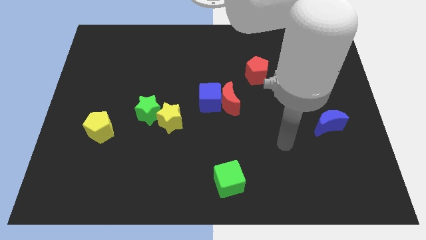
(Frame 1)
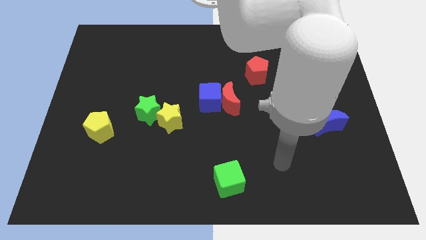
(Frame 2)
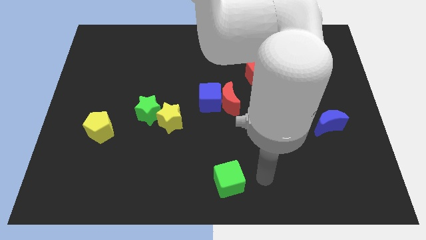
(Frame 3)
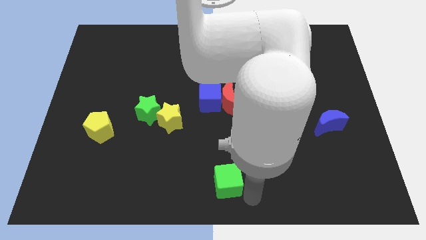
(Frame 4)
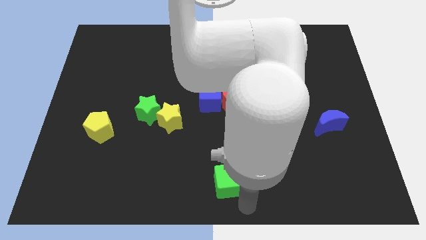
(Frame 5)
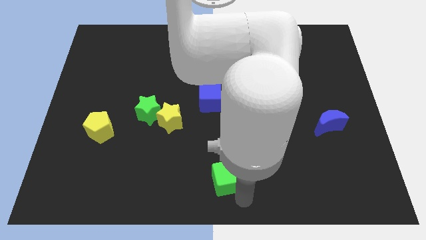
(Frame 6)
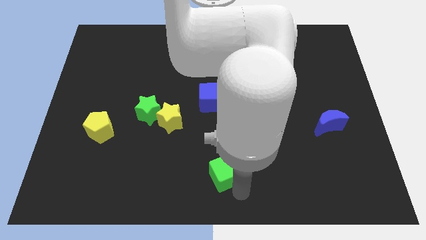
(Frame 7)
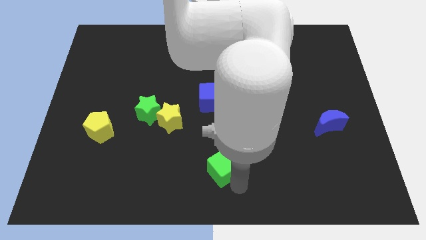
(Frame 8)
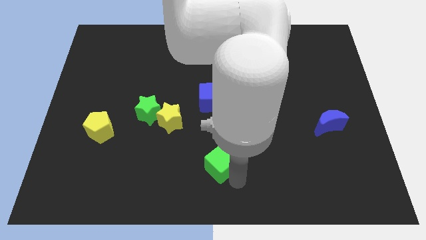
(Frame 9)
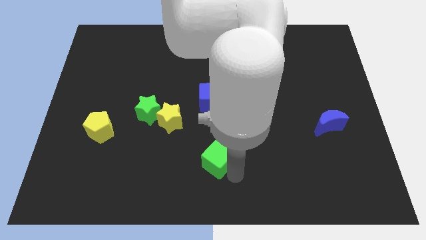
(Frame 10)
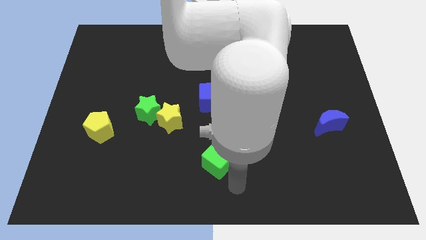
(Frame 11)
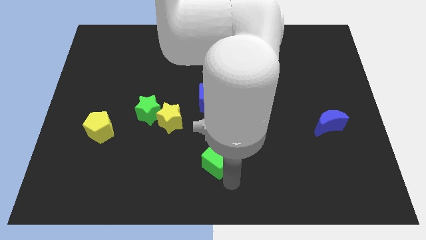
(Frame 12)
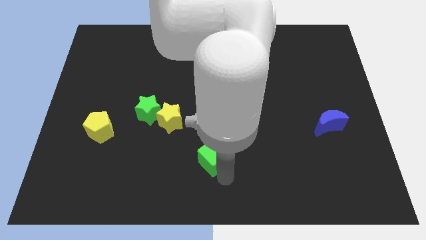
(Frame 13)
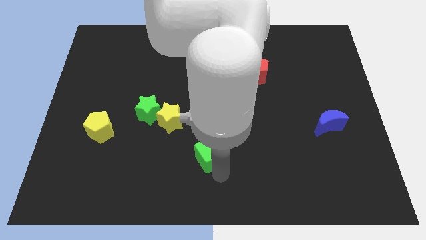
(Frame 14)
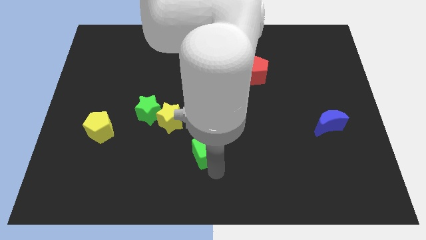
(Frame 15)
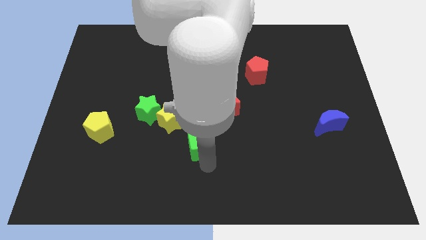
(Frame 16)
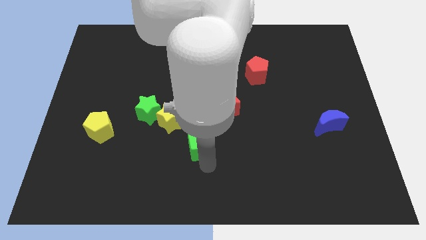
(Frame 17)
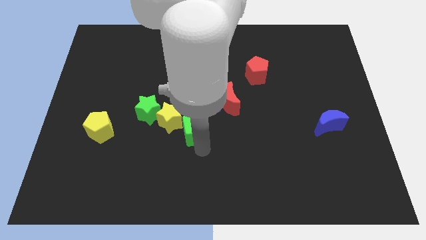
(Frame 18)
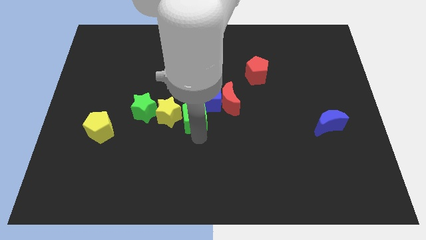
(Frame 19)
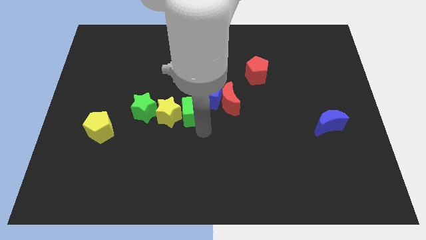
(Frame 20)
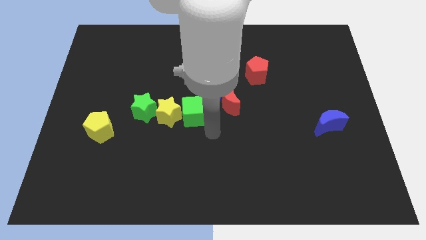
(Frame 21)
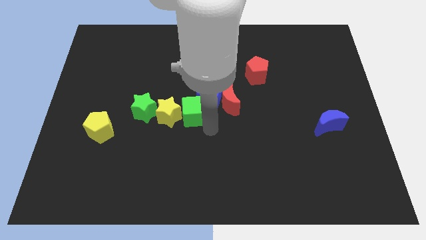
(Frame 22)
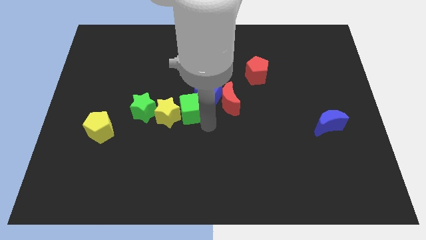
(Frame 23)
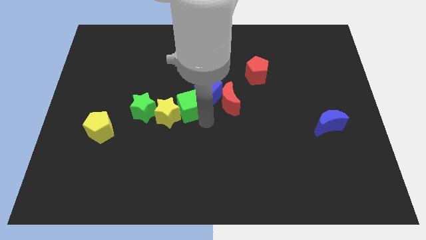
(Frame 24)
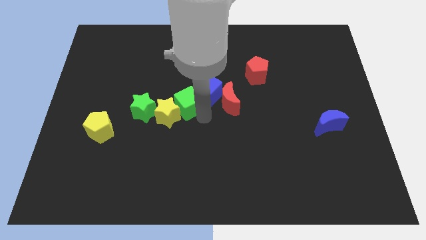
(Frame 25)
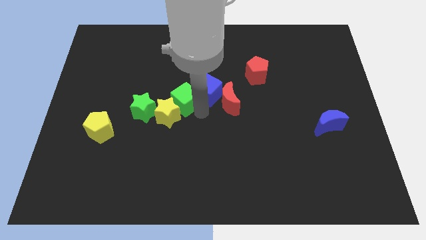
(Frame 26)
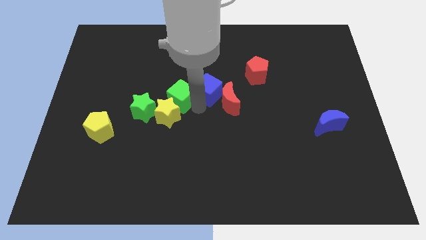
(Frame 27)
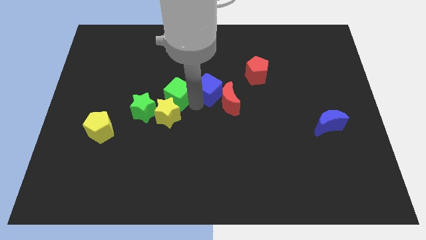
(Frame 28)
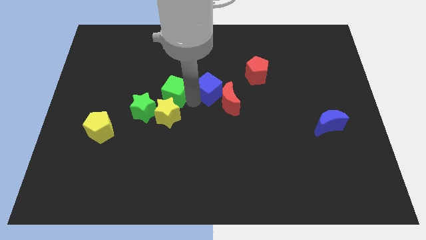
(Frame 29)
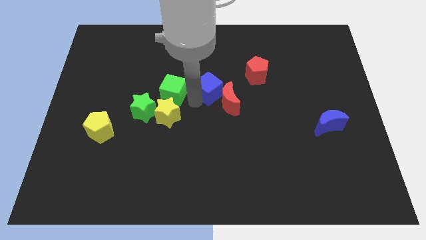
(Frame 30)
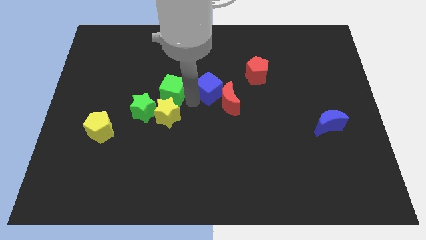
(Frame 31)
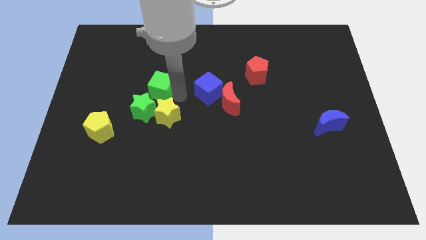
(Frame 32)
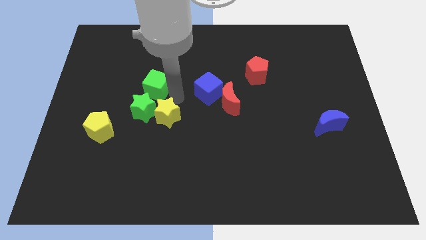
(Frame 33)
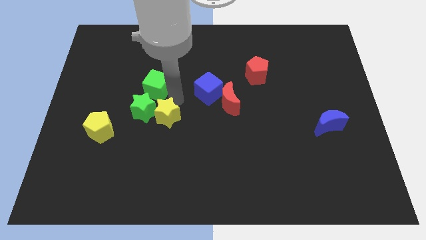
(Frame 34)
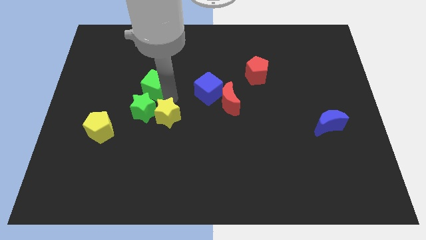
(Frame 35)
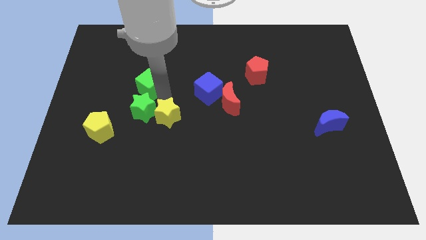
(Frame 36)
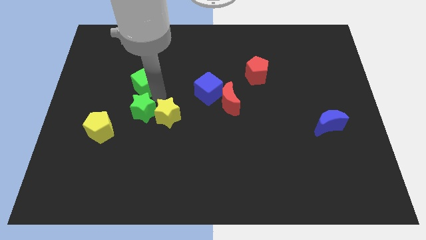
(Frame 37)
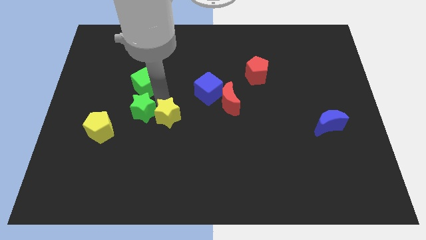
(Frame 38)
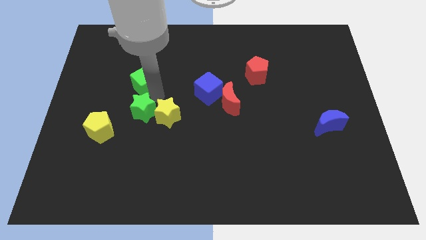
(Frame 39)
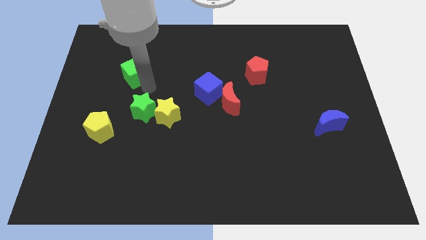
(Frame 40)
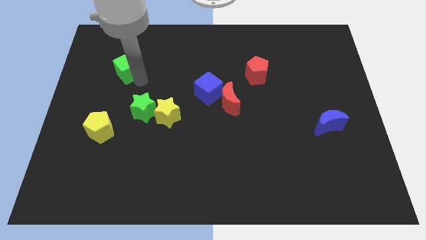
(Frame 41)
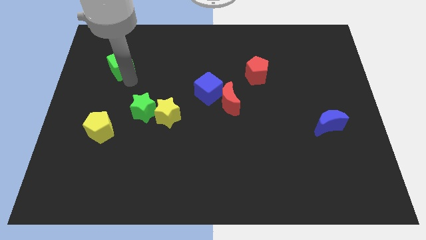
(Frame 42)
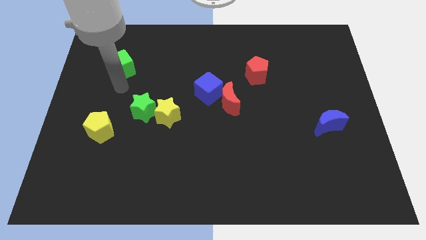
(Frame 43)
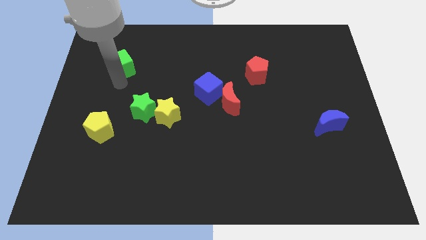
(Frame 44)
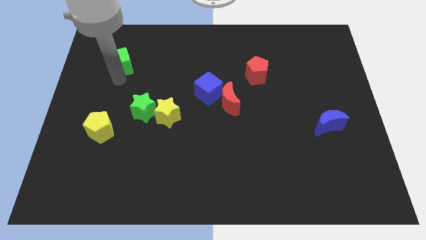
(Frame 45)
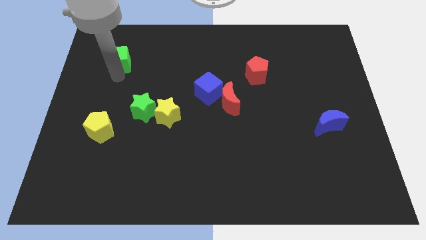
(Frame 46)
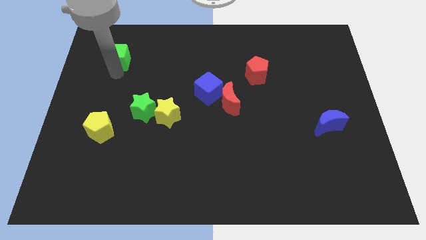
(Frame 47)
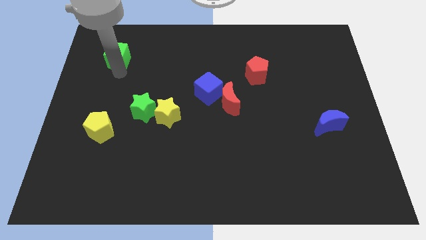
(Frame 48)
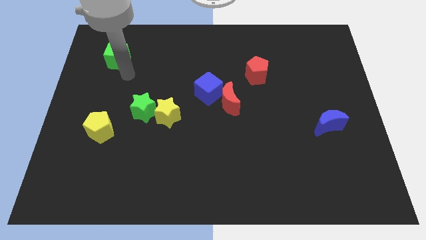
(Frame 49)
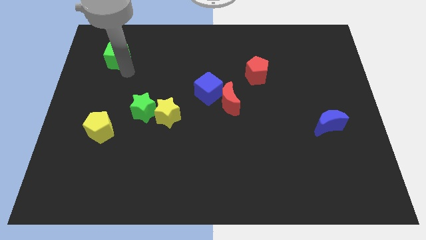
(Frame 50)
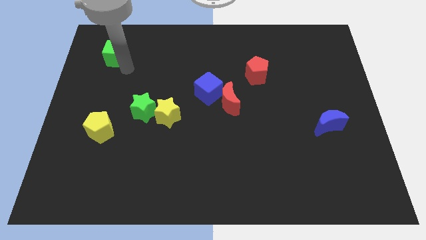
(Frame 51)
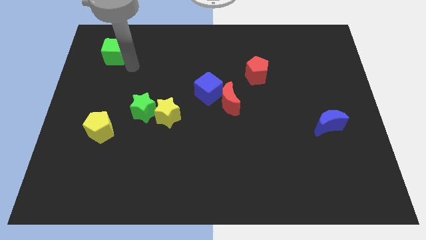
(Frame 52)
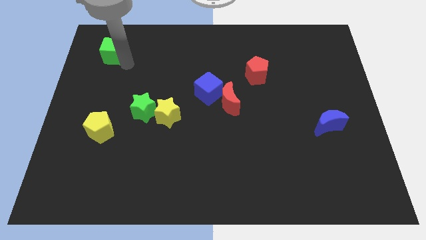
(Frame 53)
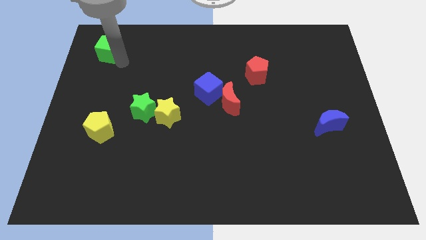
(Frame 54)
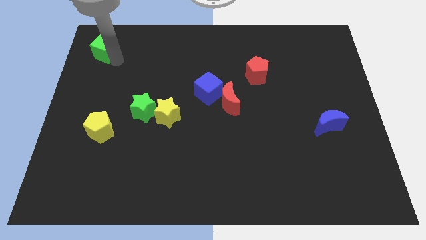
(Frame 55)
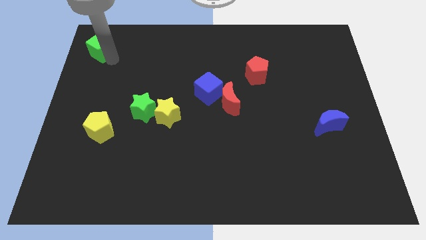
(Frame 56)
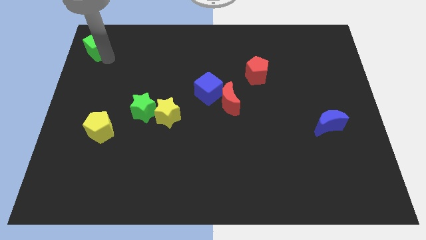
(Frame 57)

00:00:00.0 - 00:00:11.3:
put the green cube to the top left of the board

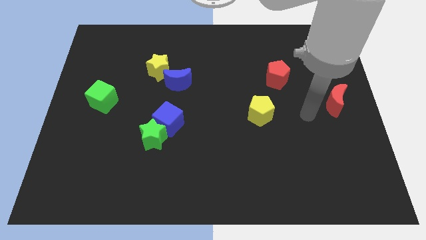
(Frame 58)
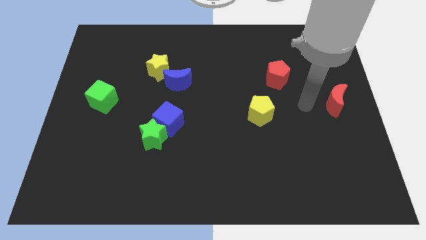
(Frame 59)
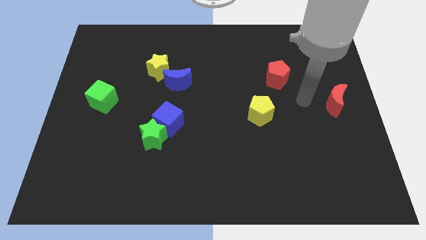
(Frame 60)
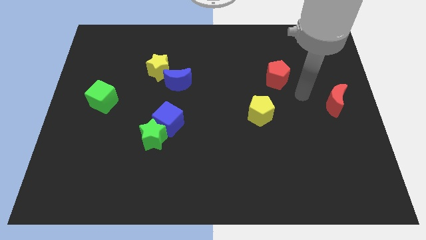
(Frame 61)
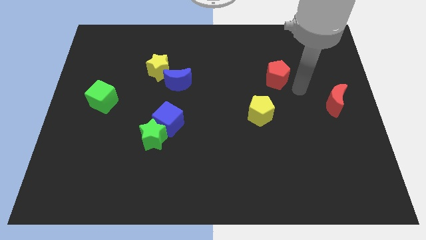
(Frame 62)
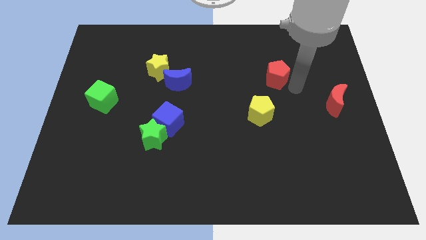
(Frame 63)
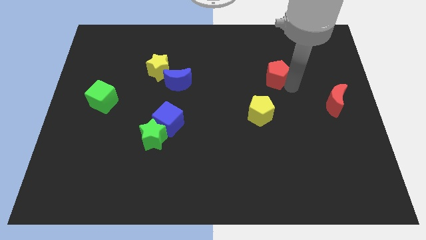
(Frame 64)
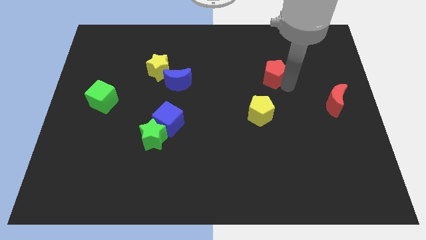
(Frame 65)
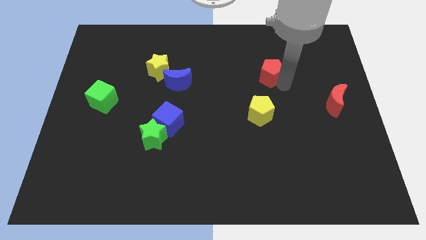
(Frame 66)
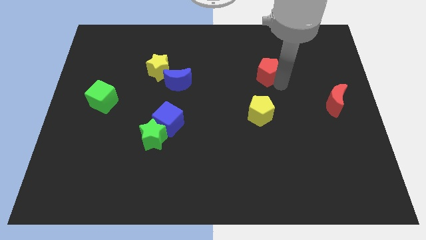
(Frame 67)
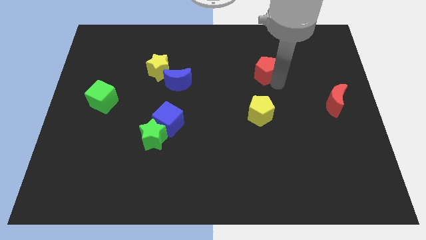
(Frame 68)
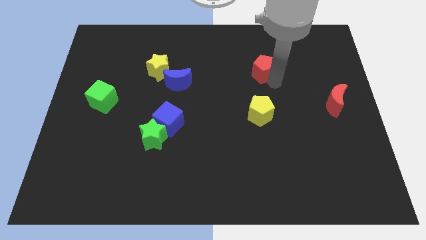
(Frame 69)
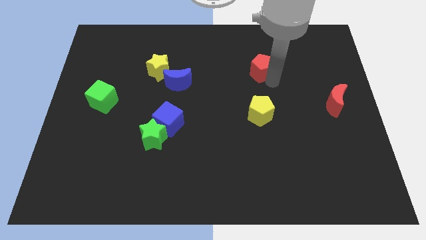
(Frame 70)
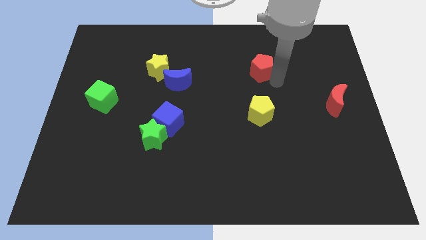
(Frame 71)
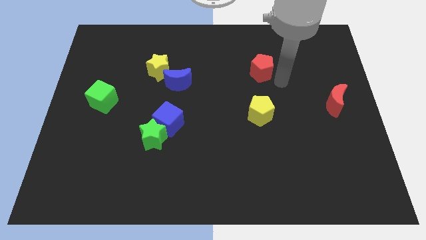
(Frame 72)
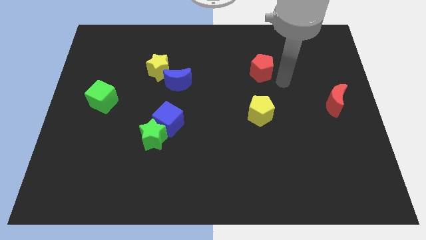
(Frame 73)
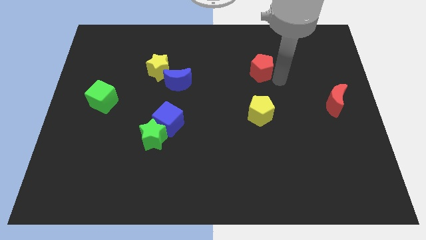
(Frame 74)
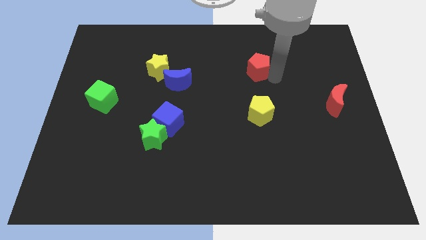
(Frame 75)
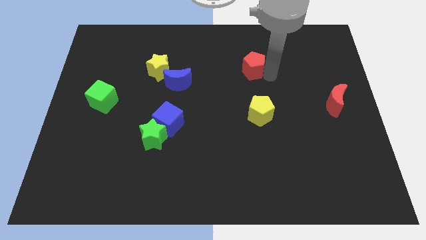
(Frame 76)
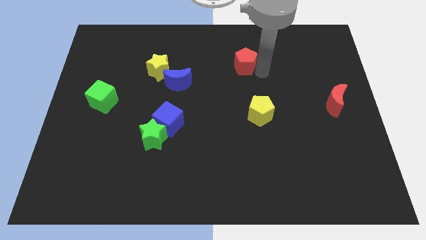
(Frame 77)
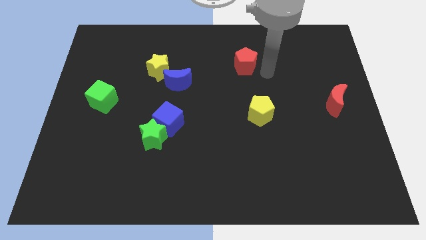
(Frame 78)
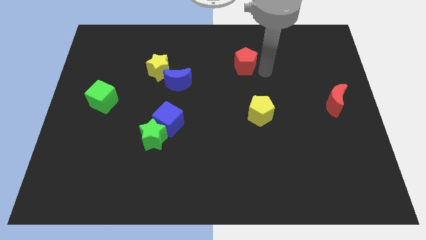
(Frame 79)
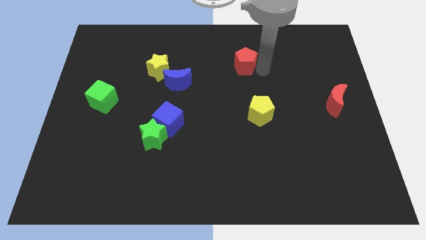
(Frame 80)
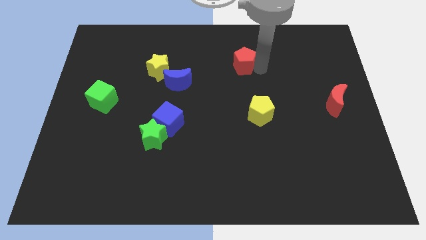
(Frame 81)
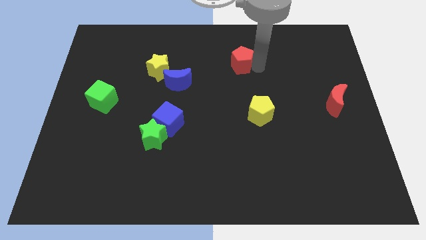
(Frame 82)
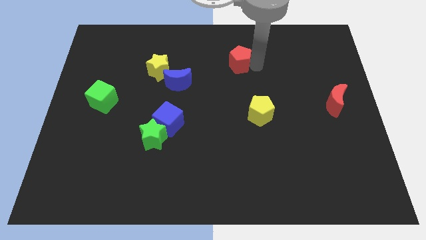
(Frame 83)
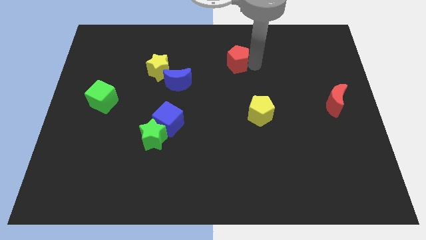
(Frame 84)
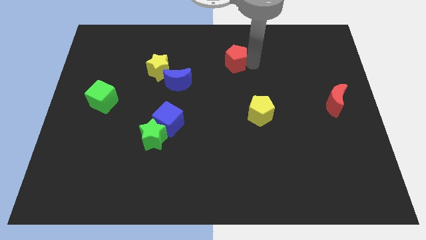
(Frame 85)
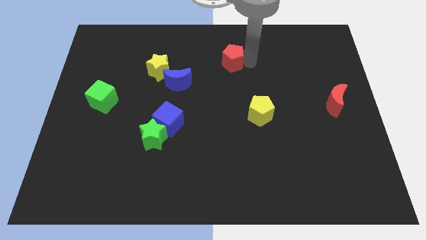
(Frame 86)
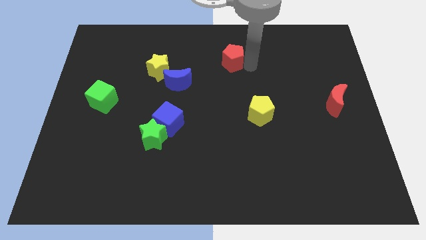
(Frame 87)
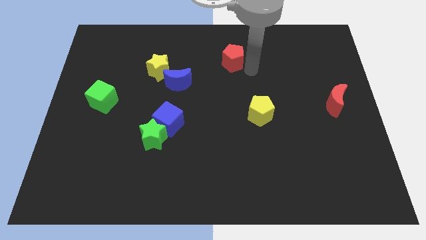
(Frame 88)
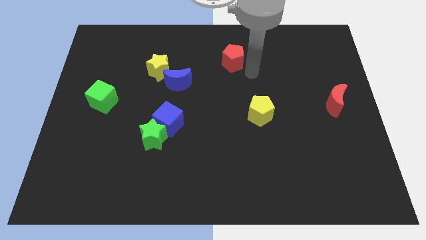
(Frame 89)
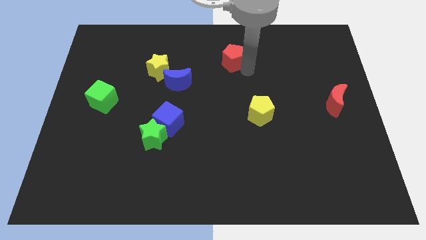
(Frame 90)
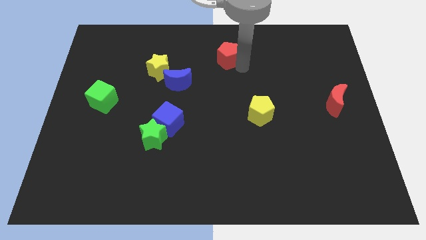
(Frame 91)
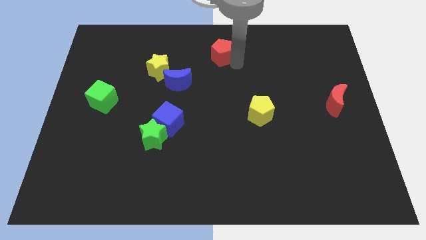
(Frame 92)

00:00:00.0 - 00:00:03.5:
push the red pentagon to the towards your base
